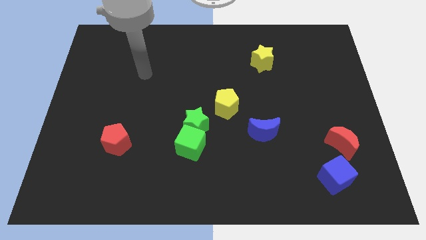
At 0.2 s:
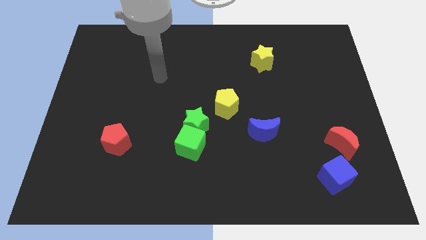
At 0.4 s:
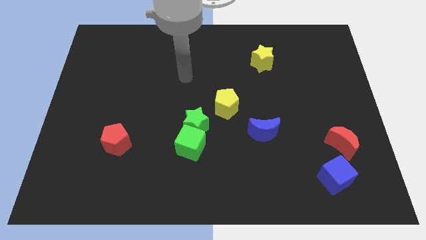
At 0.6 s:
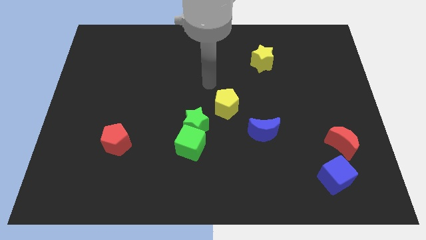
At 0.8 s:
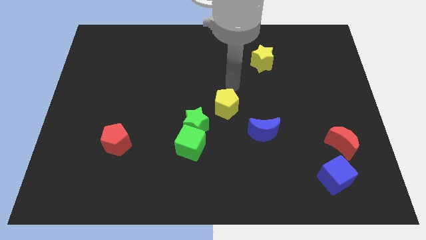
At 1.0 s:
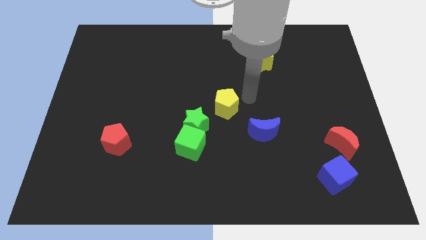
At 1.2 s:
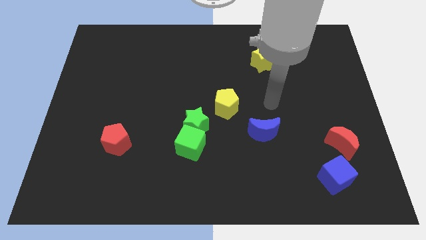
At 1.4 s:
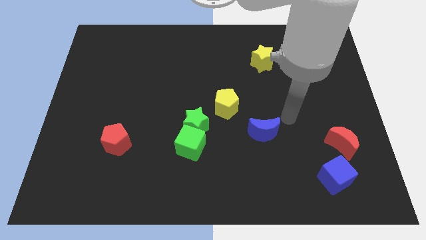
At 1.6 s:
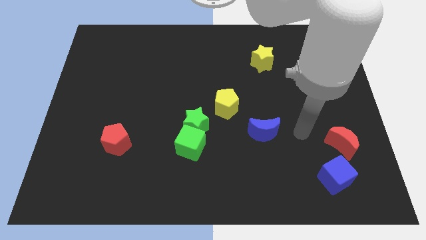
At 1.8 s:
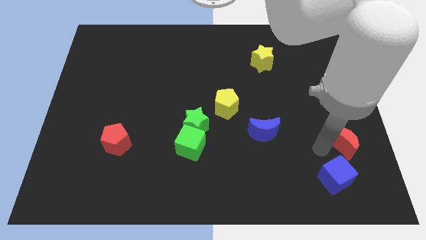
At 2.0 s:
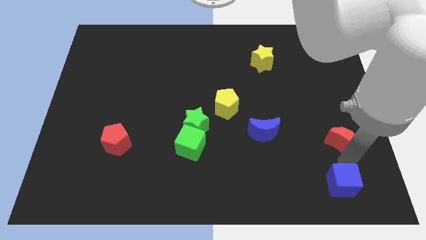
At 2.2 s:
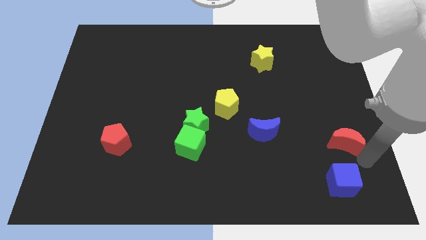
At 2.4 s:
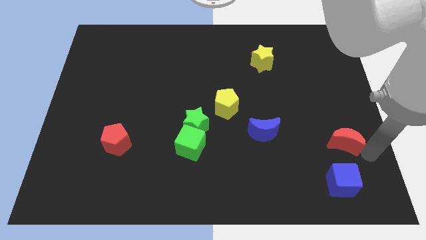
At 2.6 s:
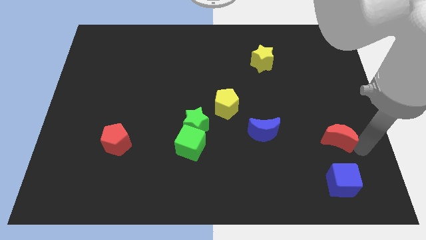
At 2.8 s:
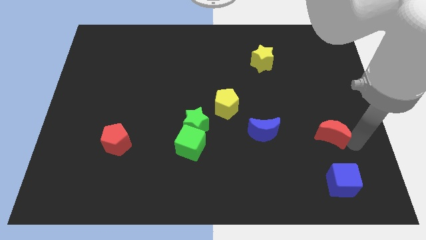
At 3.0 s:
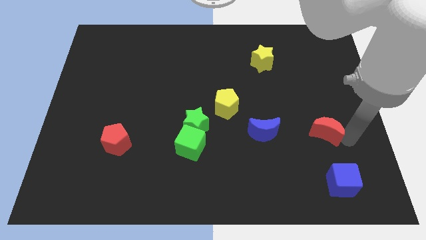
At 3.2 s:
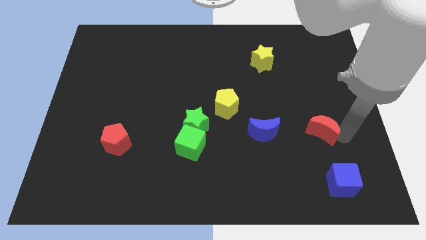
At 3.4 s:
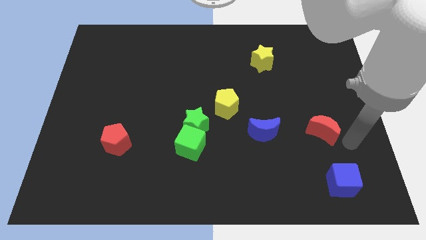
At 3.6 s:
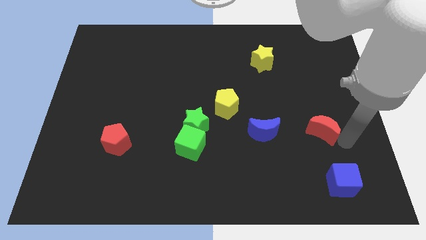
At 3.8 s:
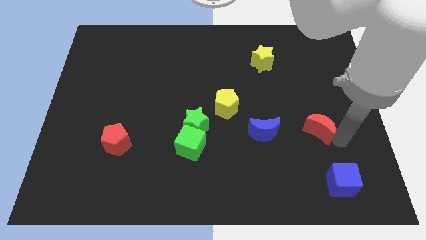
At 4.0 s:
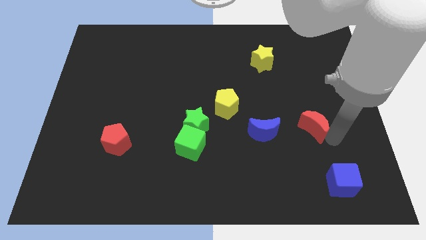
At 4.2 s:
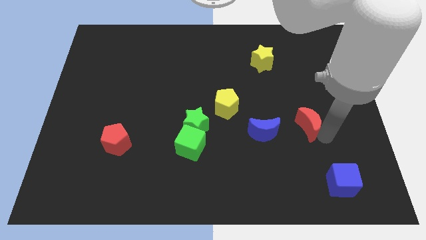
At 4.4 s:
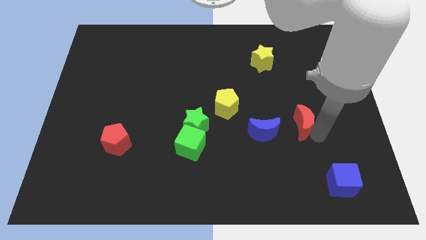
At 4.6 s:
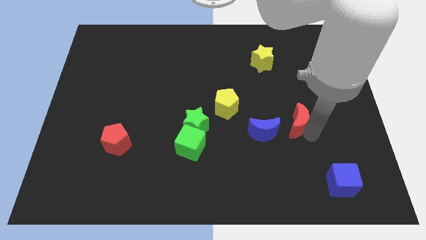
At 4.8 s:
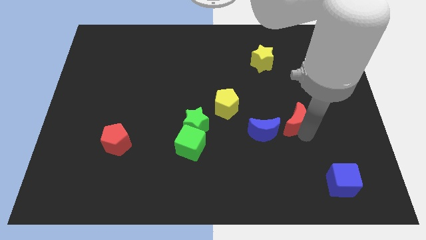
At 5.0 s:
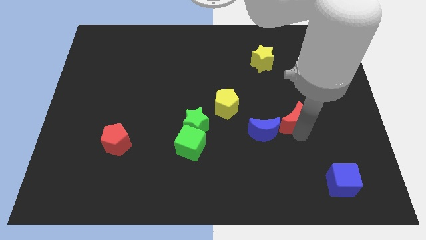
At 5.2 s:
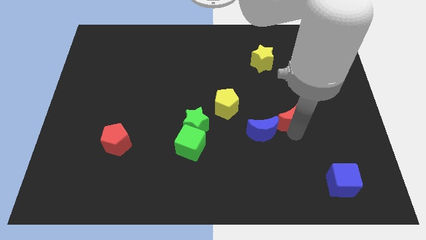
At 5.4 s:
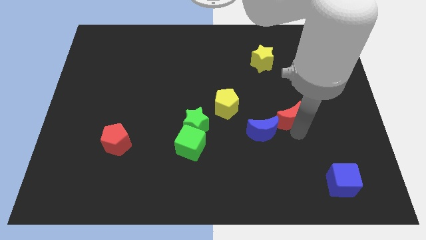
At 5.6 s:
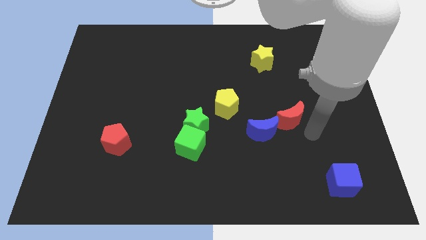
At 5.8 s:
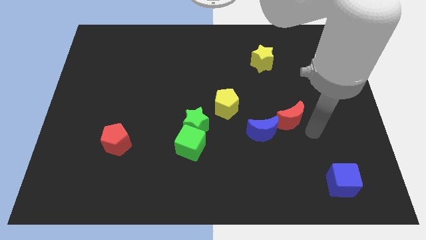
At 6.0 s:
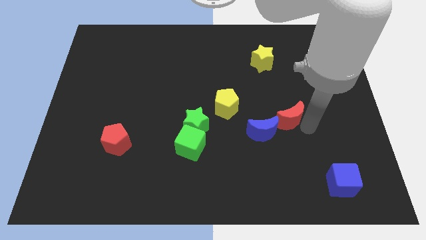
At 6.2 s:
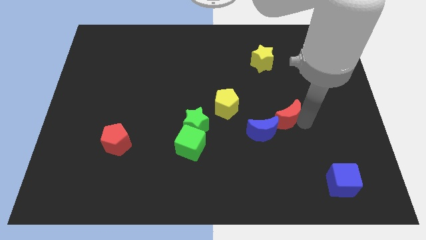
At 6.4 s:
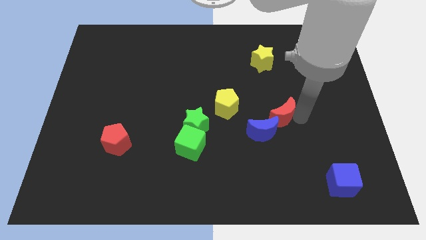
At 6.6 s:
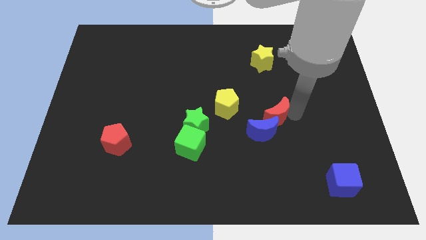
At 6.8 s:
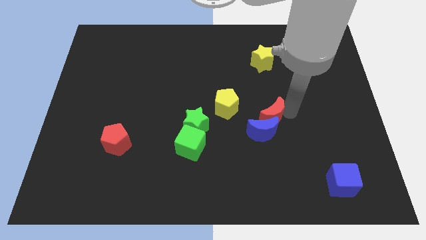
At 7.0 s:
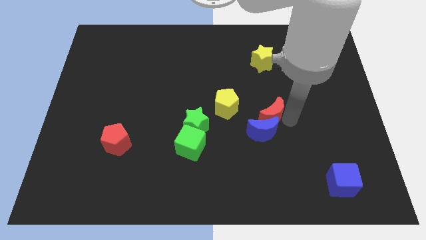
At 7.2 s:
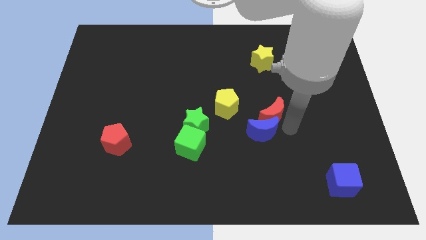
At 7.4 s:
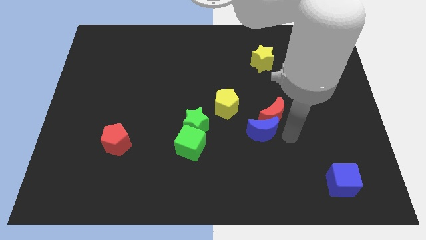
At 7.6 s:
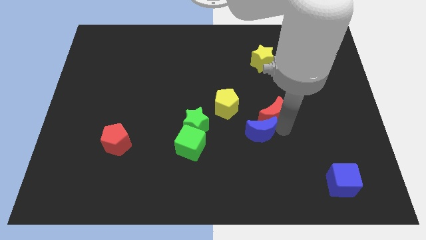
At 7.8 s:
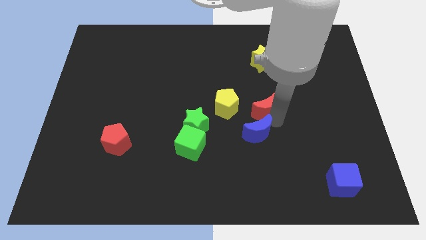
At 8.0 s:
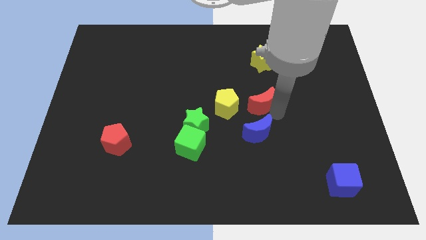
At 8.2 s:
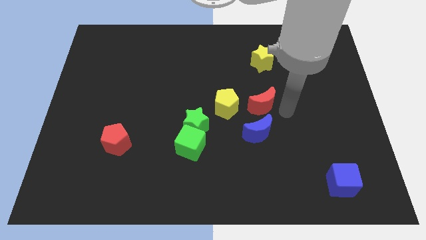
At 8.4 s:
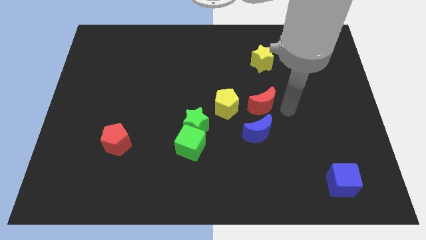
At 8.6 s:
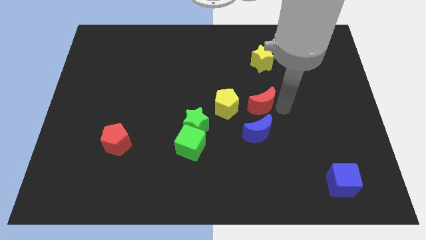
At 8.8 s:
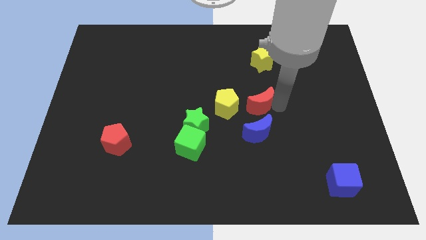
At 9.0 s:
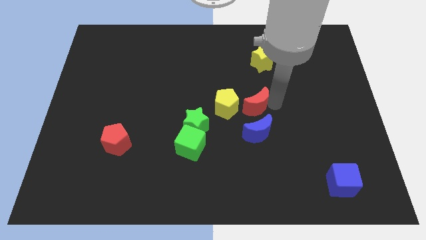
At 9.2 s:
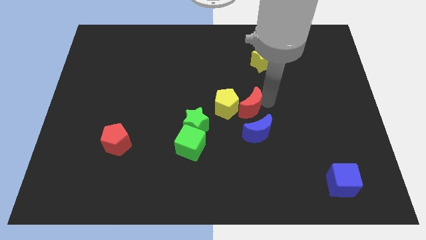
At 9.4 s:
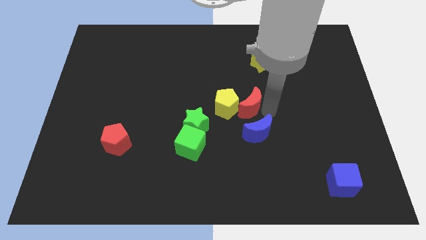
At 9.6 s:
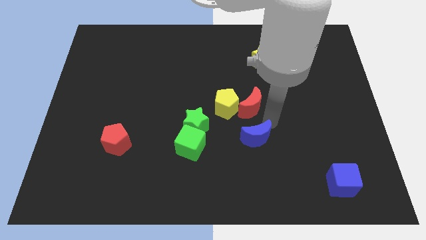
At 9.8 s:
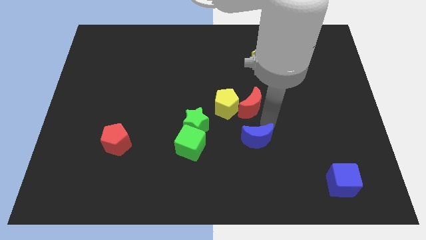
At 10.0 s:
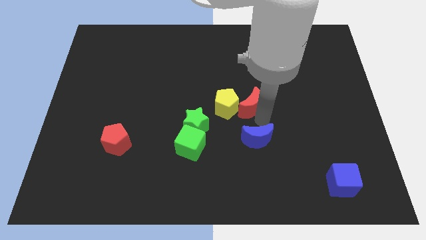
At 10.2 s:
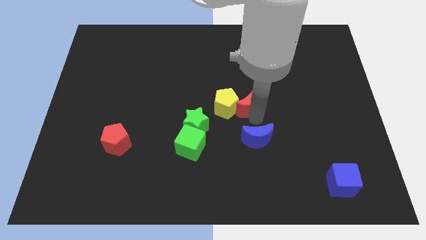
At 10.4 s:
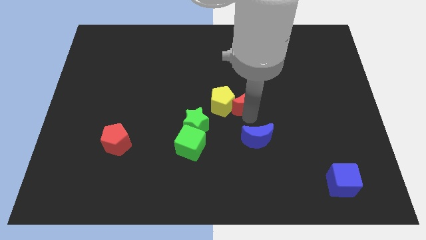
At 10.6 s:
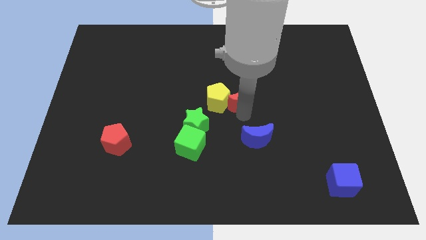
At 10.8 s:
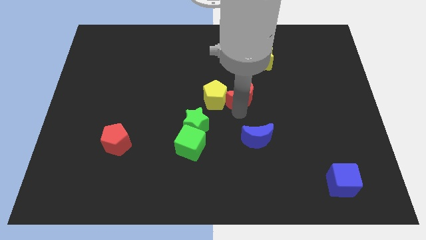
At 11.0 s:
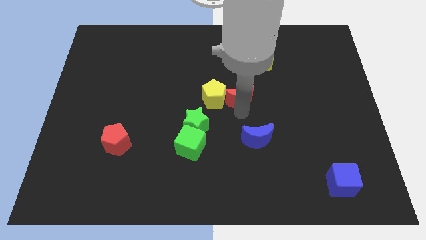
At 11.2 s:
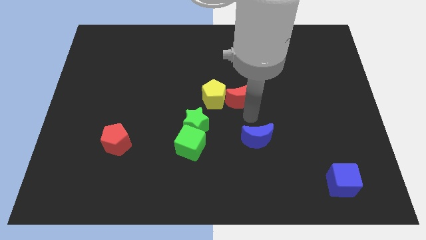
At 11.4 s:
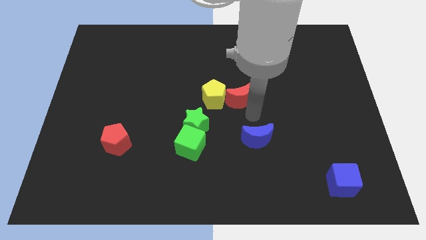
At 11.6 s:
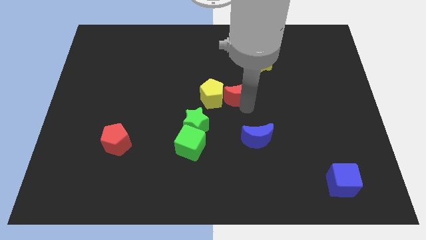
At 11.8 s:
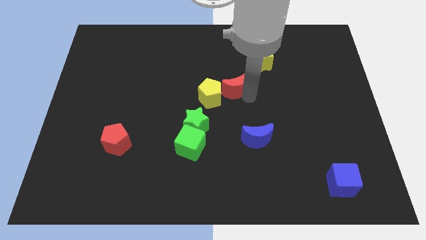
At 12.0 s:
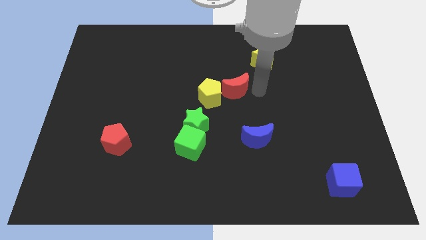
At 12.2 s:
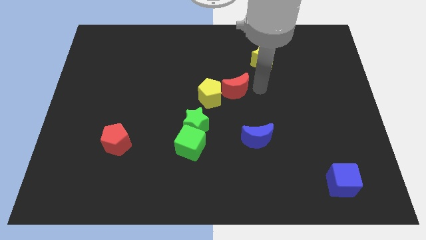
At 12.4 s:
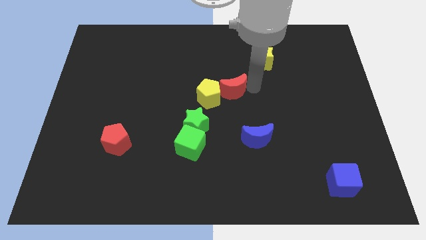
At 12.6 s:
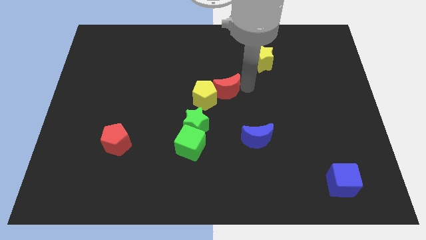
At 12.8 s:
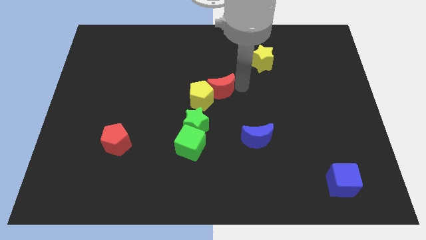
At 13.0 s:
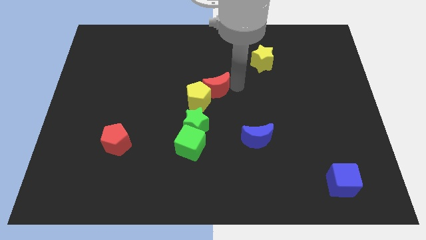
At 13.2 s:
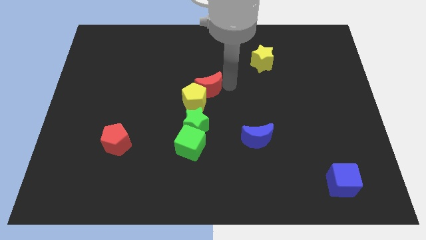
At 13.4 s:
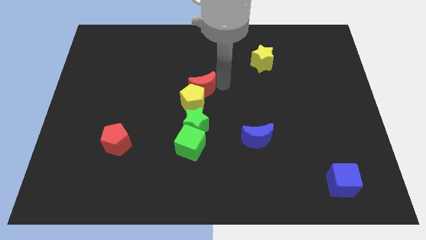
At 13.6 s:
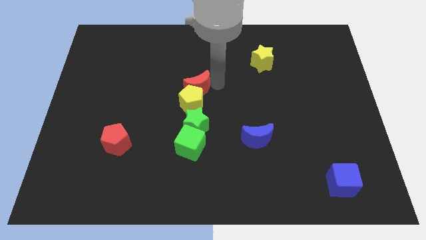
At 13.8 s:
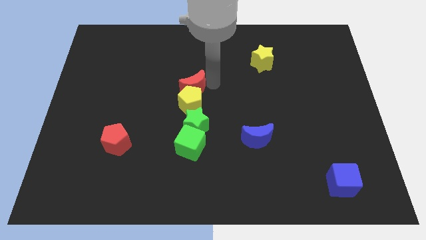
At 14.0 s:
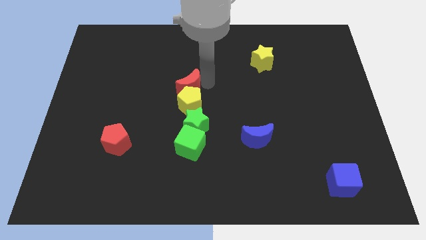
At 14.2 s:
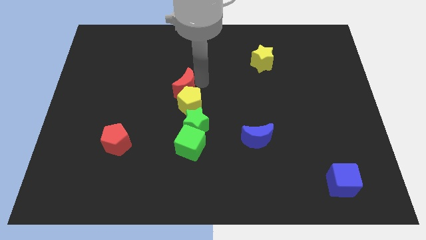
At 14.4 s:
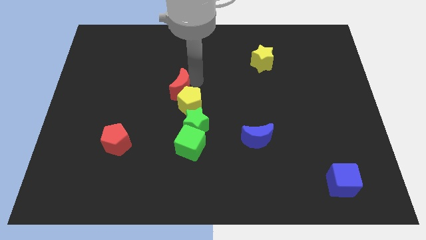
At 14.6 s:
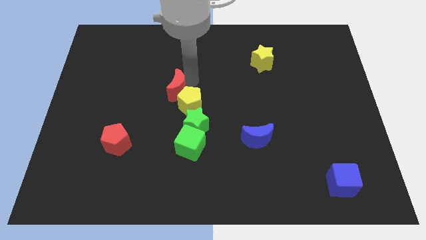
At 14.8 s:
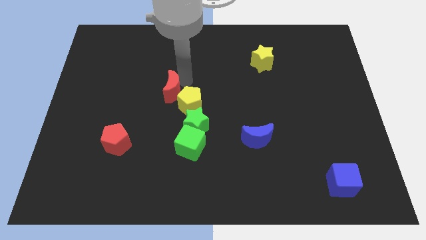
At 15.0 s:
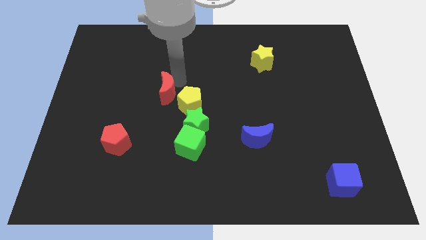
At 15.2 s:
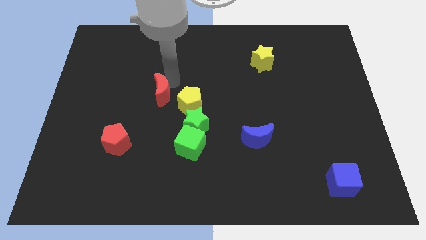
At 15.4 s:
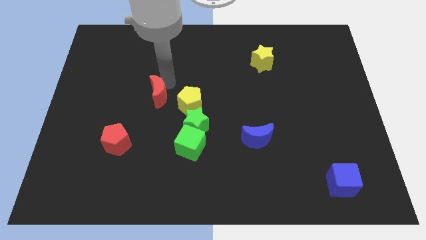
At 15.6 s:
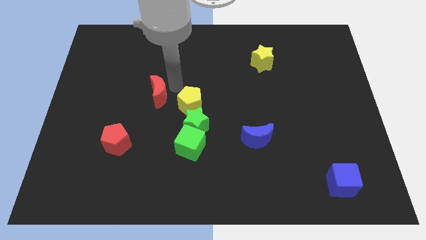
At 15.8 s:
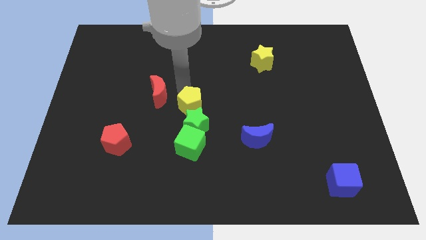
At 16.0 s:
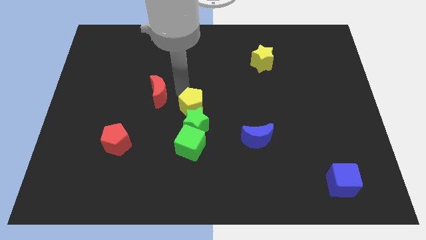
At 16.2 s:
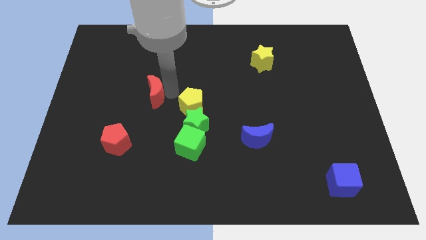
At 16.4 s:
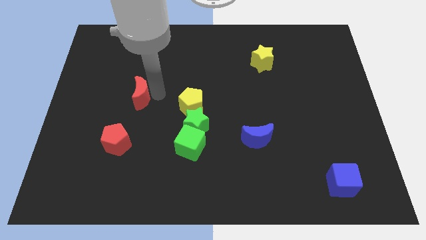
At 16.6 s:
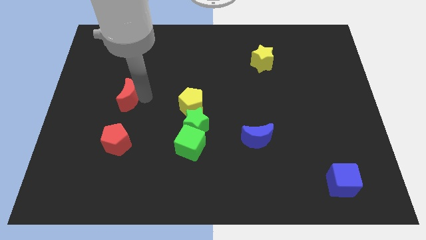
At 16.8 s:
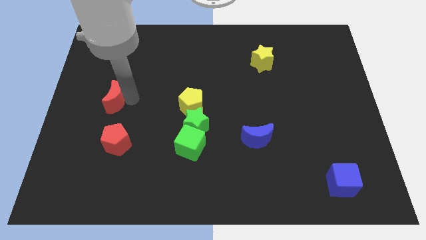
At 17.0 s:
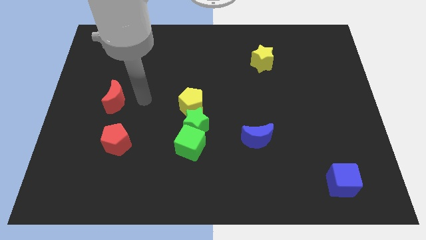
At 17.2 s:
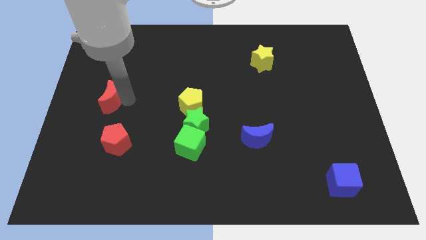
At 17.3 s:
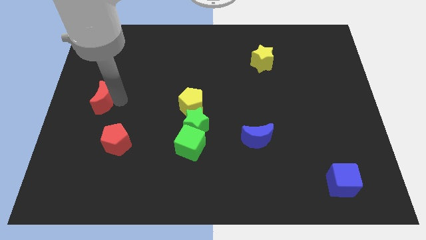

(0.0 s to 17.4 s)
push the red moon to the left side of the board
